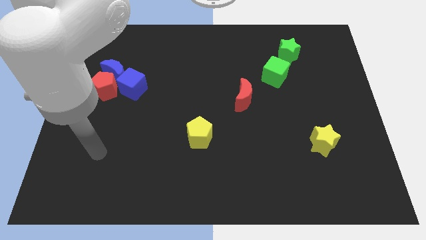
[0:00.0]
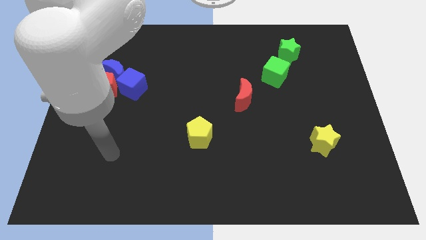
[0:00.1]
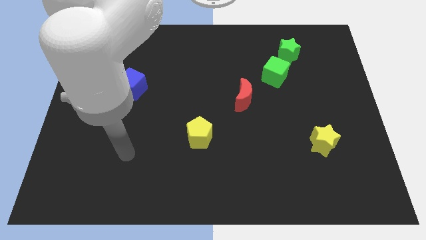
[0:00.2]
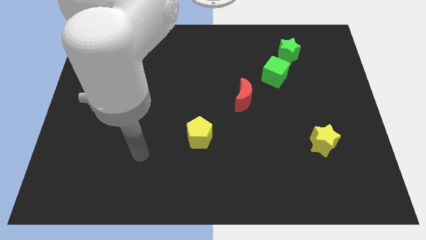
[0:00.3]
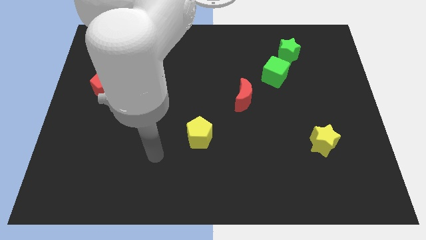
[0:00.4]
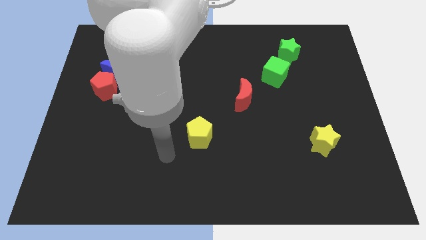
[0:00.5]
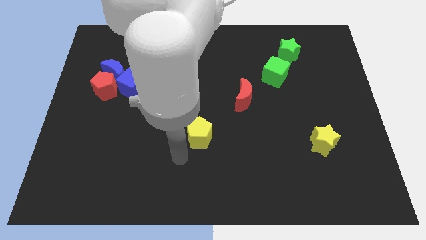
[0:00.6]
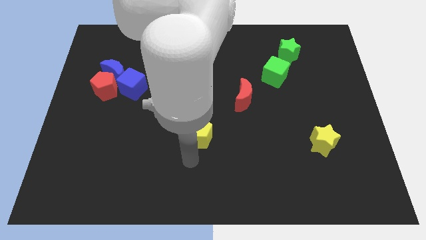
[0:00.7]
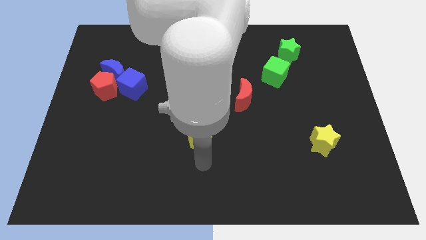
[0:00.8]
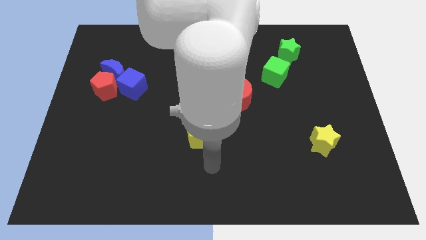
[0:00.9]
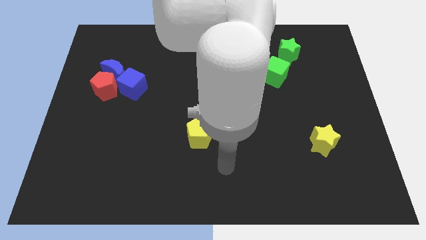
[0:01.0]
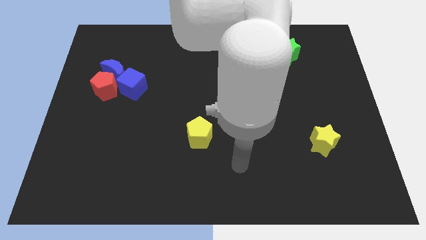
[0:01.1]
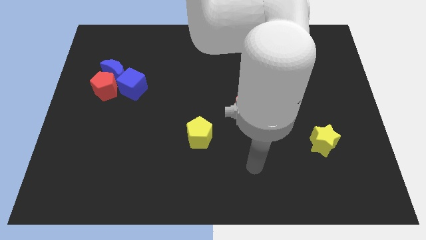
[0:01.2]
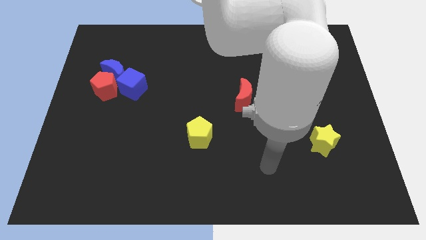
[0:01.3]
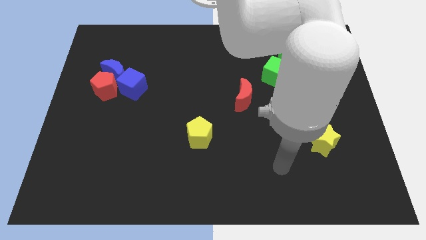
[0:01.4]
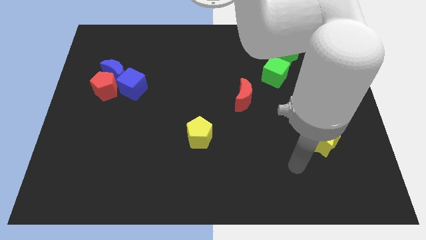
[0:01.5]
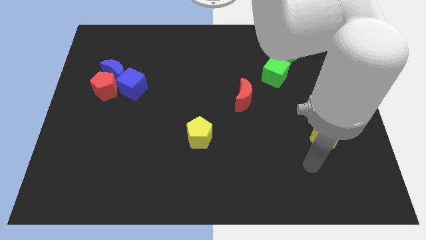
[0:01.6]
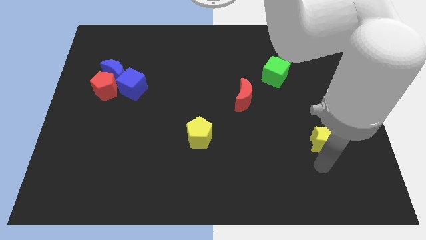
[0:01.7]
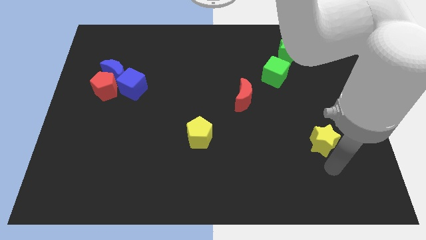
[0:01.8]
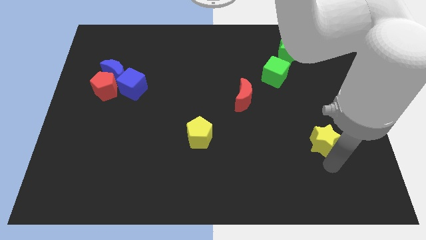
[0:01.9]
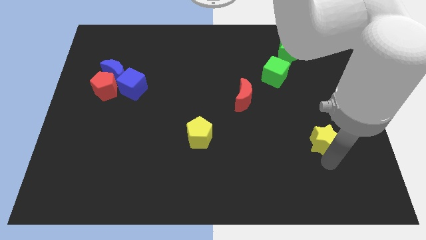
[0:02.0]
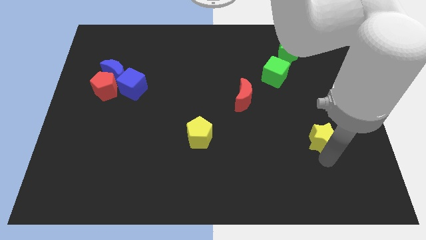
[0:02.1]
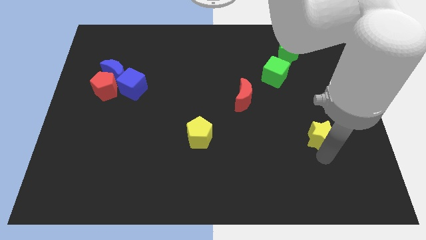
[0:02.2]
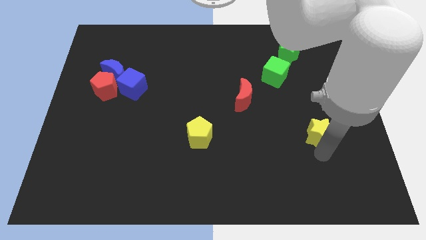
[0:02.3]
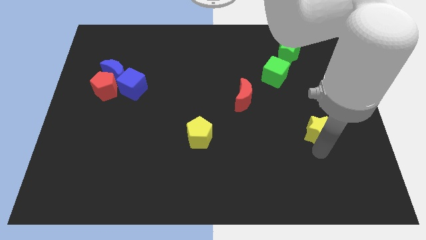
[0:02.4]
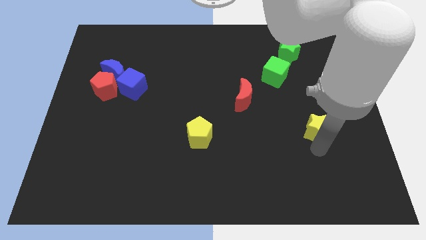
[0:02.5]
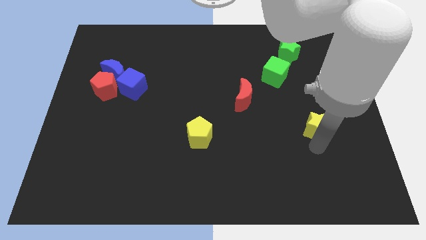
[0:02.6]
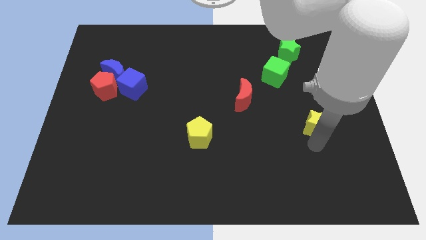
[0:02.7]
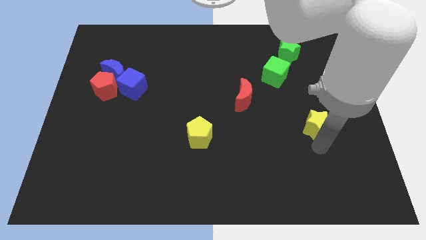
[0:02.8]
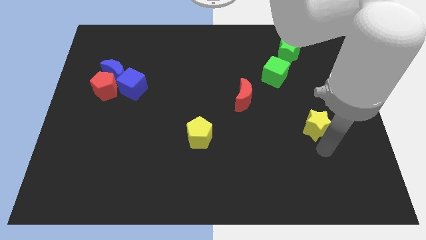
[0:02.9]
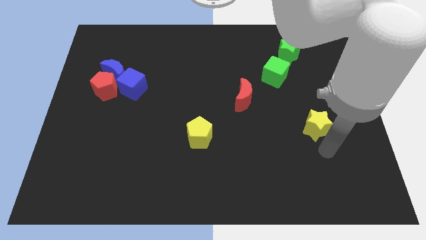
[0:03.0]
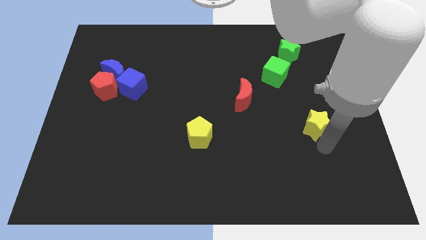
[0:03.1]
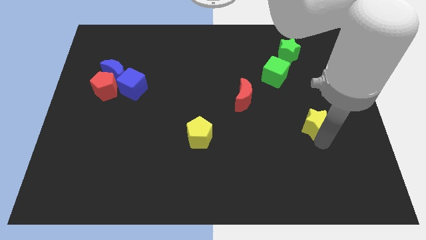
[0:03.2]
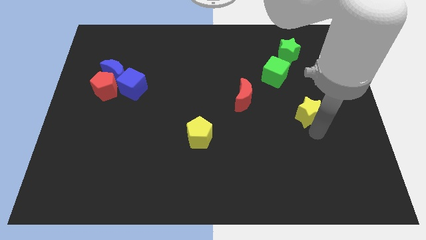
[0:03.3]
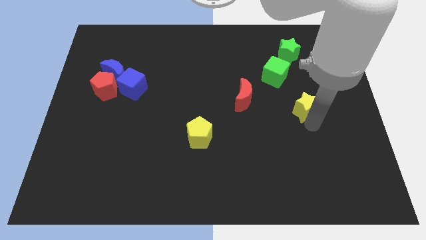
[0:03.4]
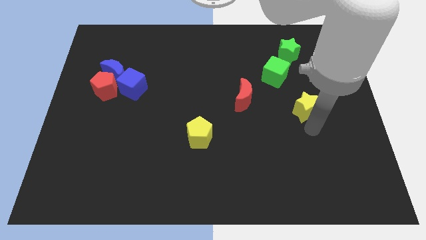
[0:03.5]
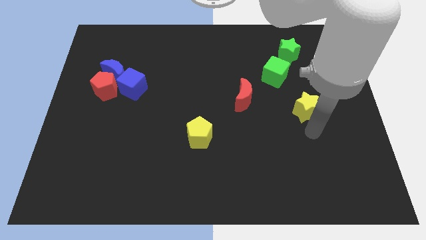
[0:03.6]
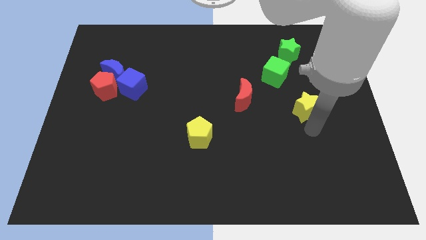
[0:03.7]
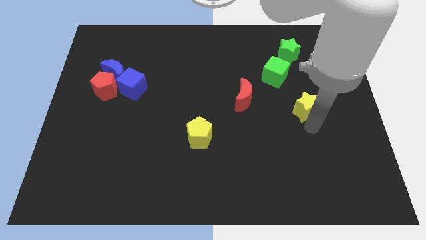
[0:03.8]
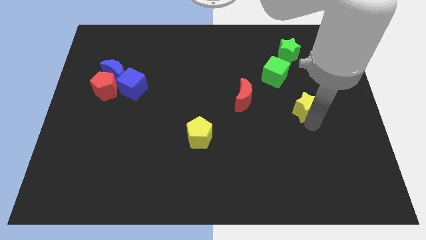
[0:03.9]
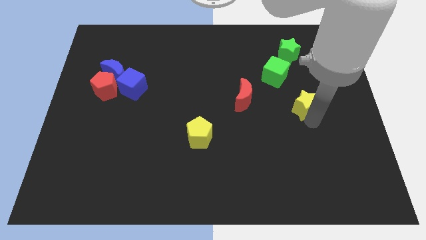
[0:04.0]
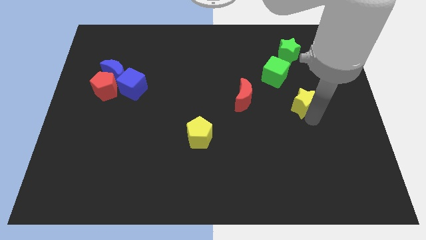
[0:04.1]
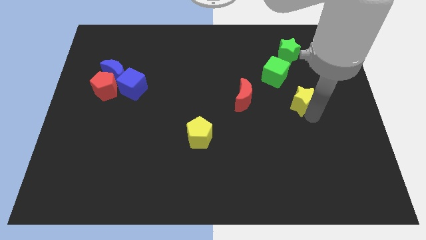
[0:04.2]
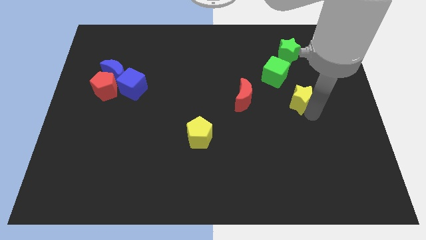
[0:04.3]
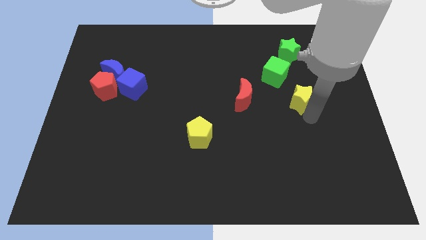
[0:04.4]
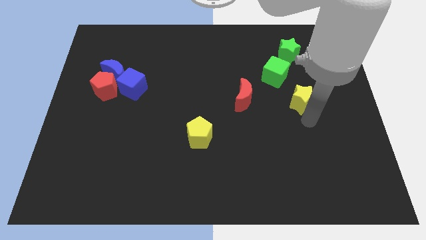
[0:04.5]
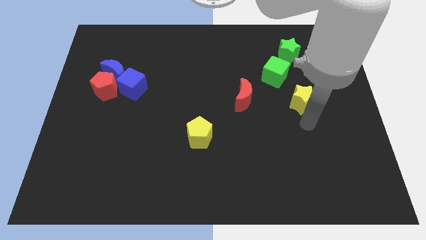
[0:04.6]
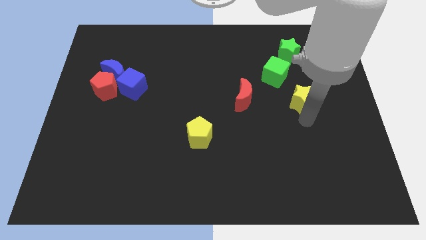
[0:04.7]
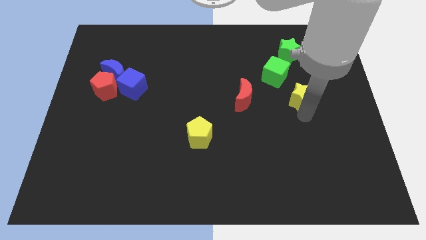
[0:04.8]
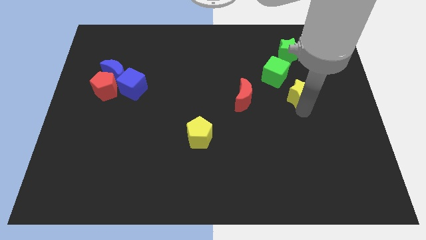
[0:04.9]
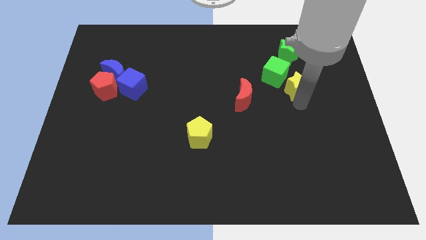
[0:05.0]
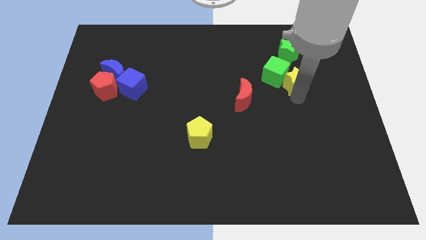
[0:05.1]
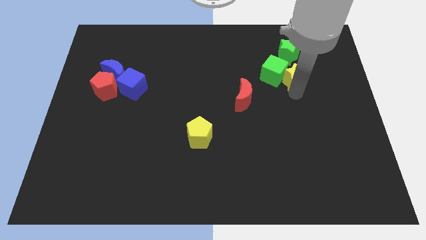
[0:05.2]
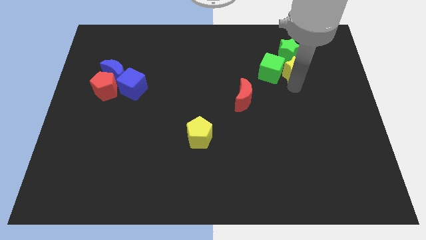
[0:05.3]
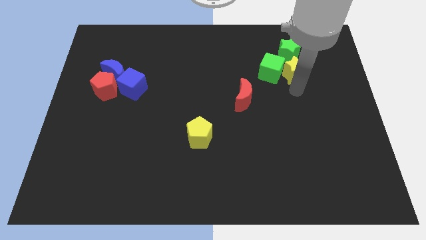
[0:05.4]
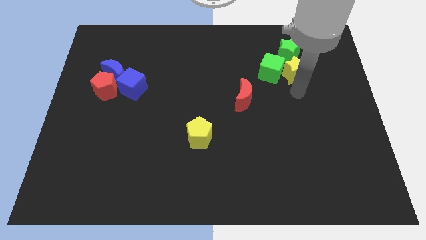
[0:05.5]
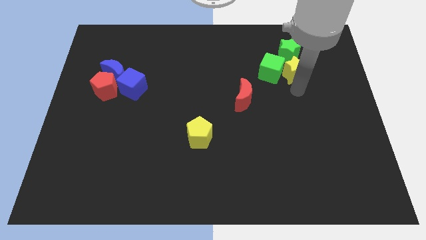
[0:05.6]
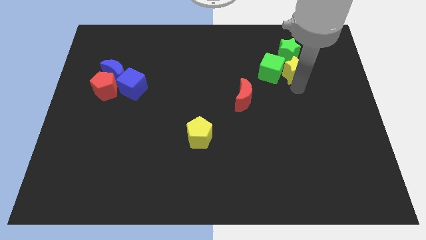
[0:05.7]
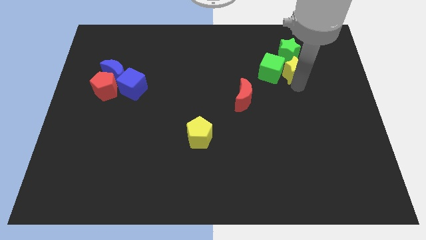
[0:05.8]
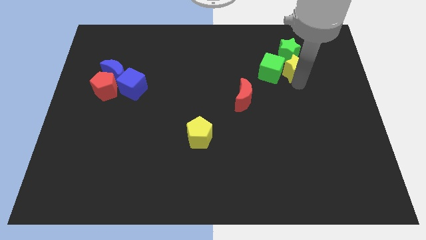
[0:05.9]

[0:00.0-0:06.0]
put the yellow star to the green star

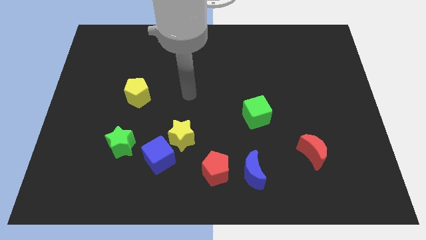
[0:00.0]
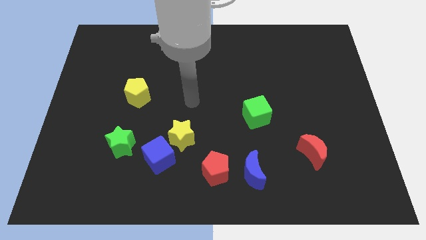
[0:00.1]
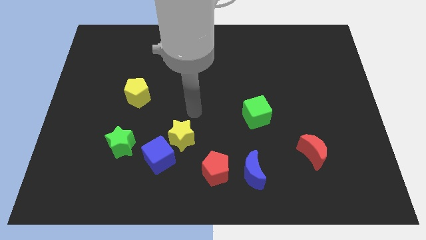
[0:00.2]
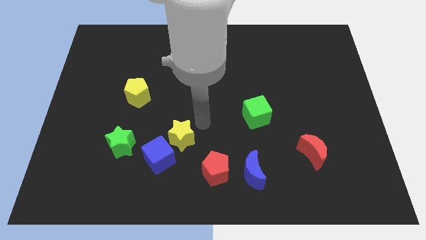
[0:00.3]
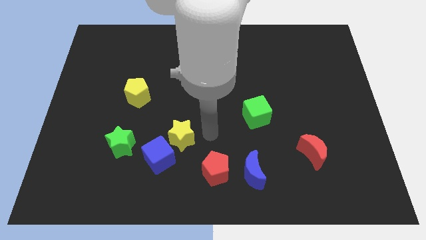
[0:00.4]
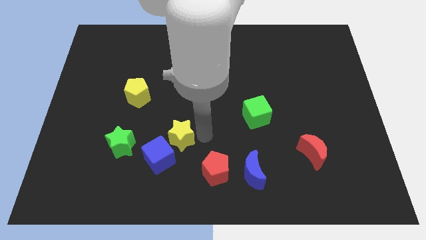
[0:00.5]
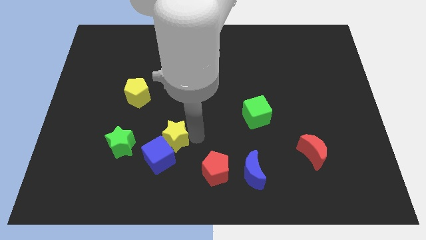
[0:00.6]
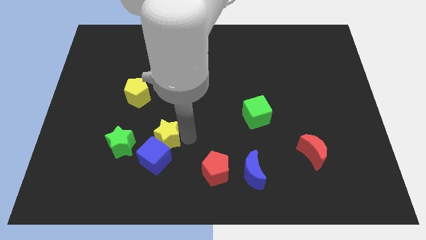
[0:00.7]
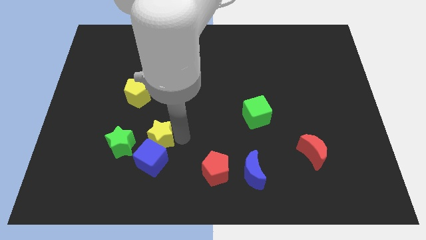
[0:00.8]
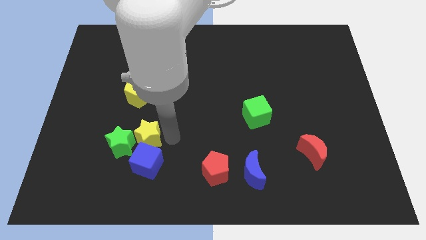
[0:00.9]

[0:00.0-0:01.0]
slide the yellow star towards the green star
